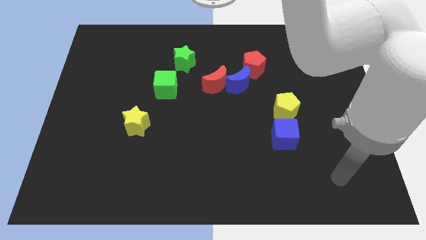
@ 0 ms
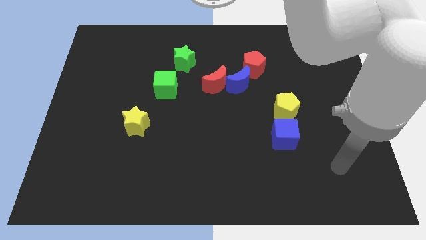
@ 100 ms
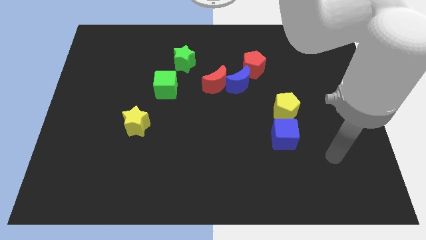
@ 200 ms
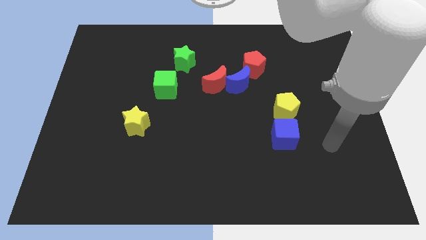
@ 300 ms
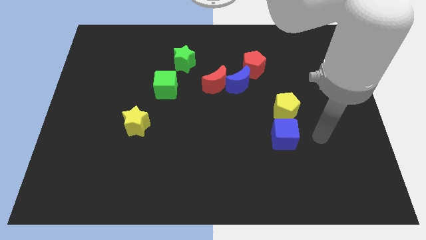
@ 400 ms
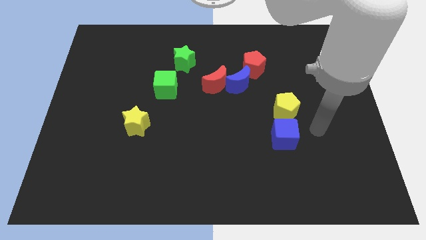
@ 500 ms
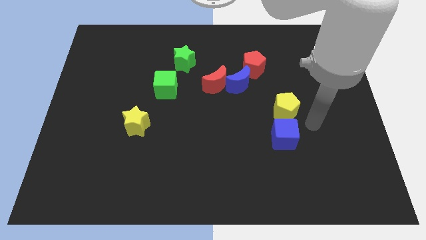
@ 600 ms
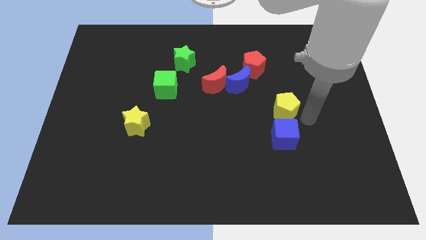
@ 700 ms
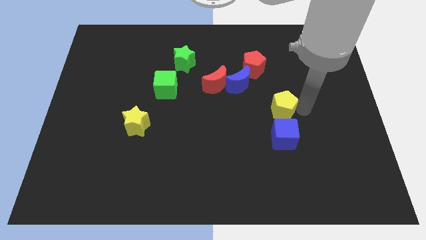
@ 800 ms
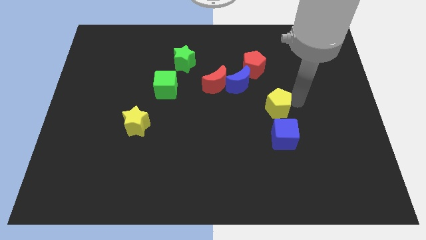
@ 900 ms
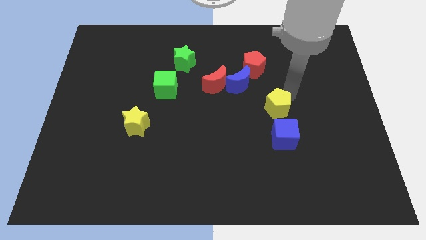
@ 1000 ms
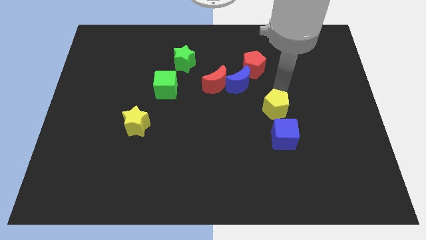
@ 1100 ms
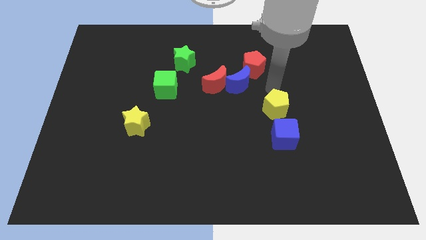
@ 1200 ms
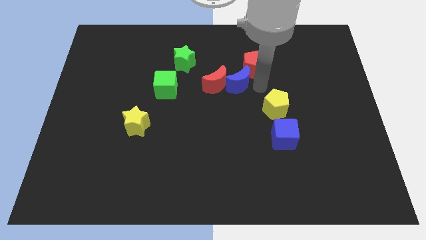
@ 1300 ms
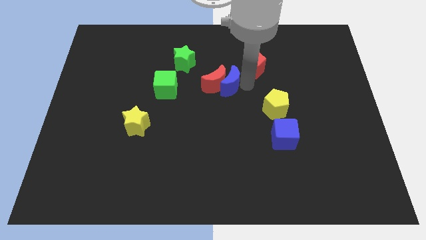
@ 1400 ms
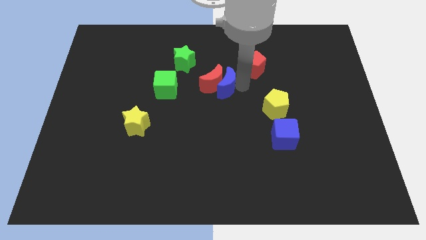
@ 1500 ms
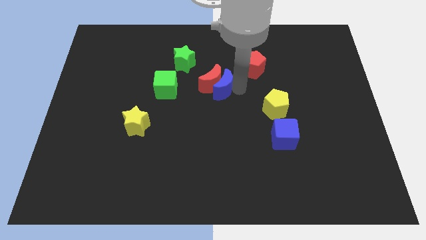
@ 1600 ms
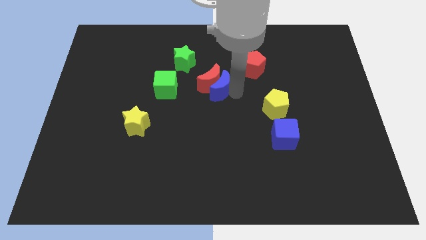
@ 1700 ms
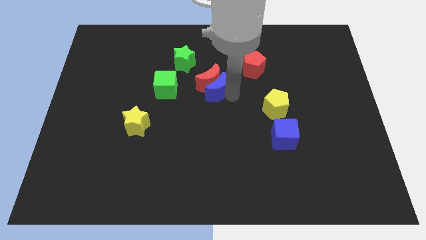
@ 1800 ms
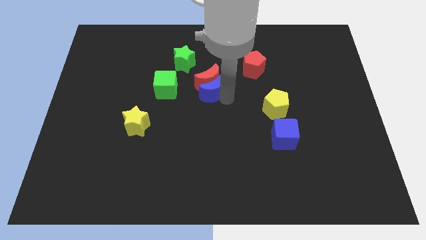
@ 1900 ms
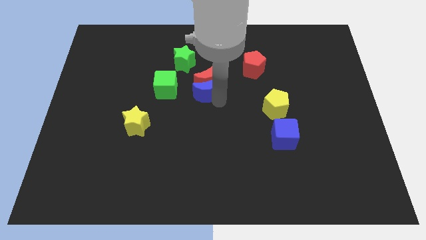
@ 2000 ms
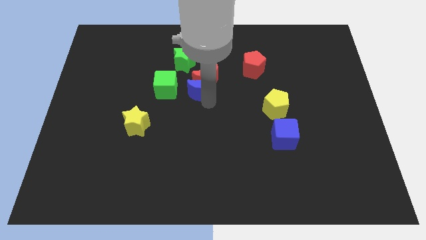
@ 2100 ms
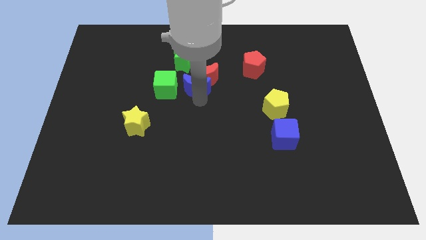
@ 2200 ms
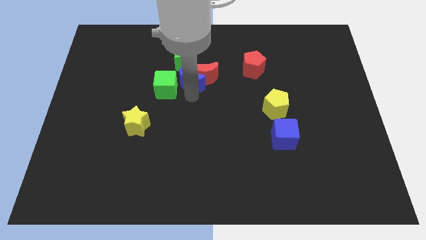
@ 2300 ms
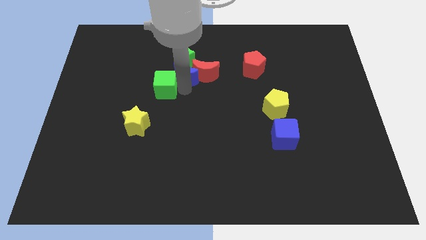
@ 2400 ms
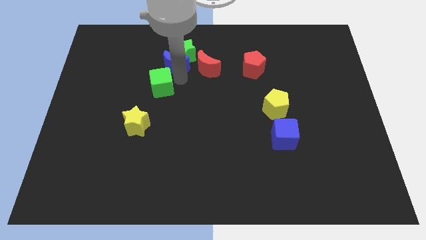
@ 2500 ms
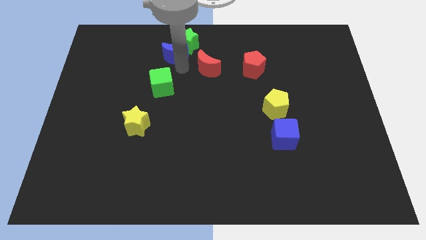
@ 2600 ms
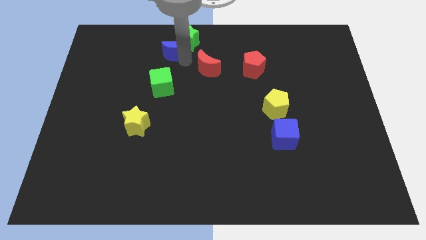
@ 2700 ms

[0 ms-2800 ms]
pull the red moon apart from the blue moon

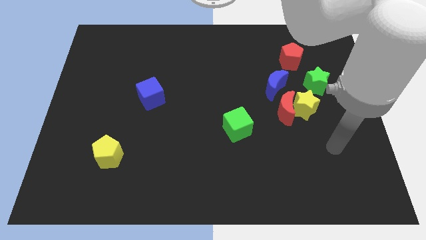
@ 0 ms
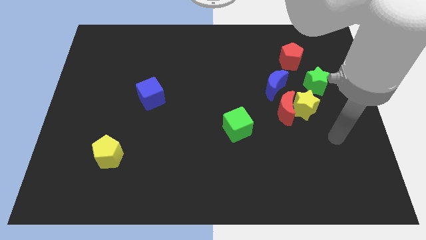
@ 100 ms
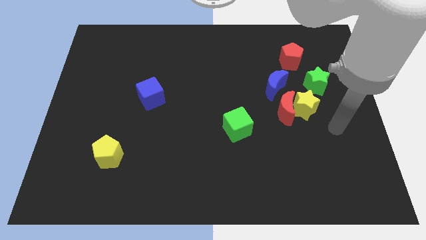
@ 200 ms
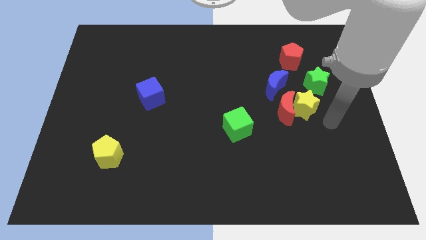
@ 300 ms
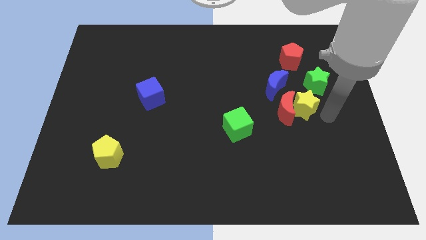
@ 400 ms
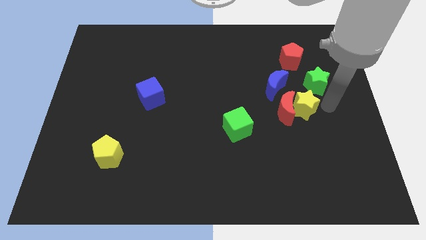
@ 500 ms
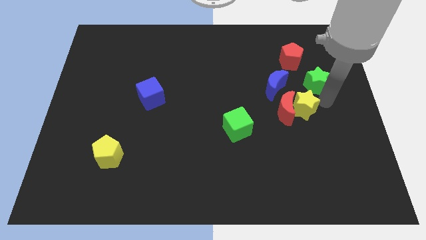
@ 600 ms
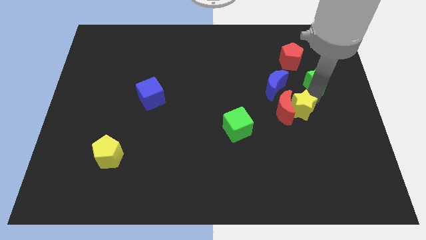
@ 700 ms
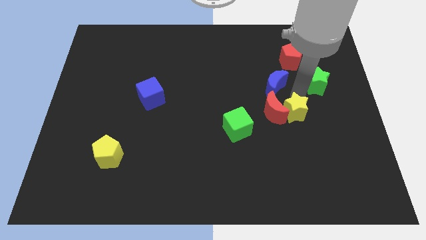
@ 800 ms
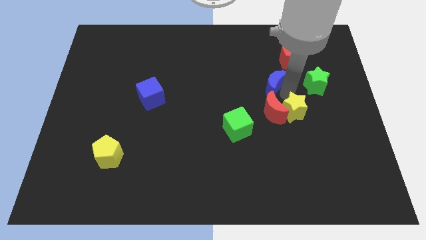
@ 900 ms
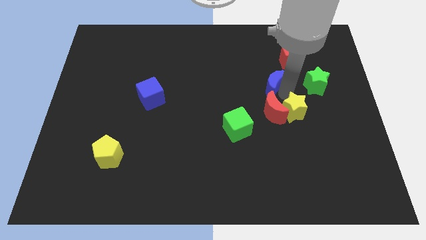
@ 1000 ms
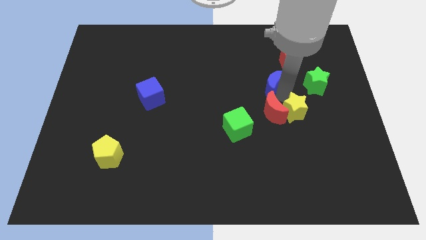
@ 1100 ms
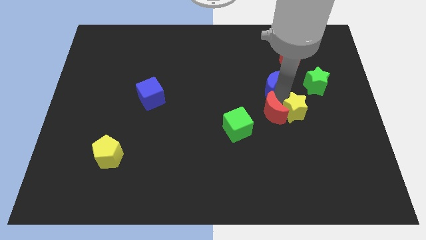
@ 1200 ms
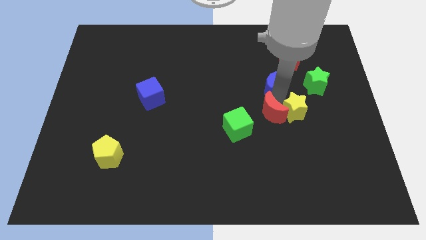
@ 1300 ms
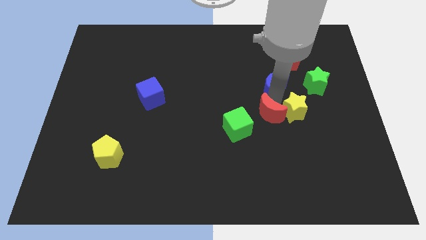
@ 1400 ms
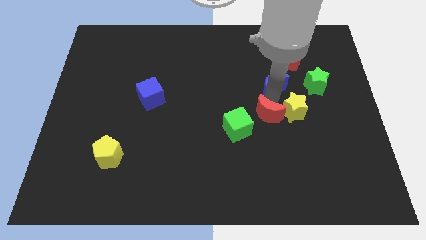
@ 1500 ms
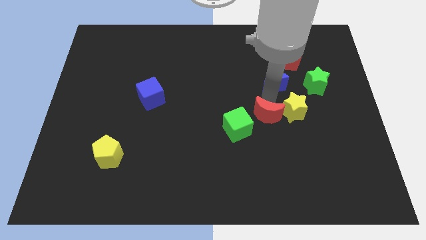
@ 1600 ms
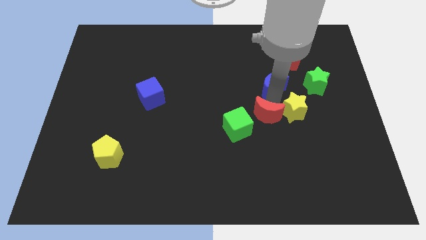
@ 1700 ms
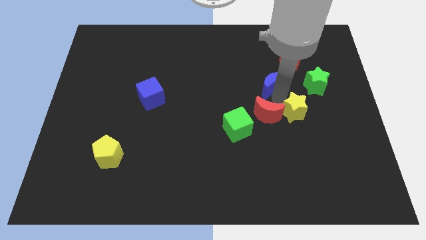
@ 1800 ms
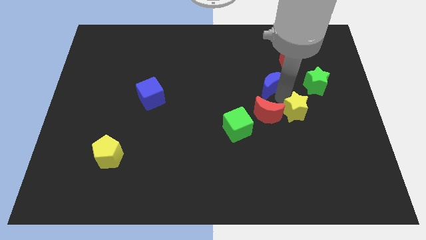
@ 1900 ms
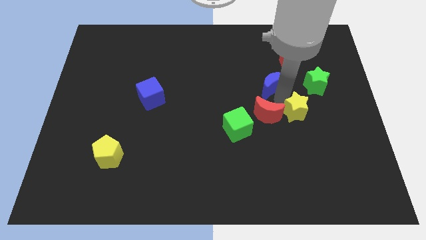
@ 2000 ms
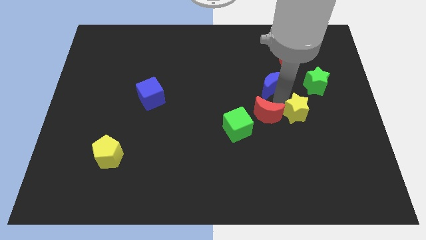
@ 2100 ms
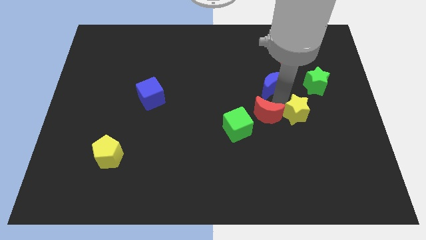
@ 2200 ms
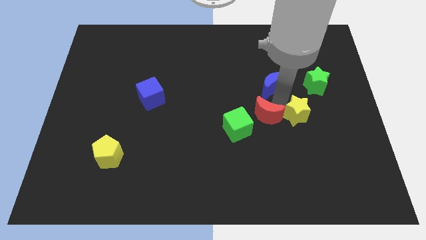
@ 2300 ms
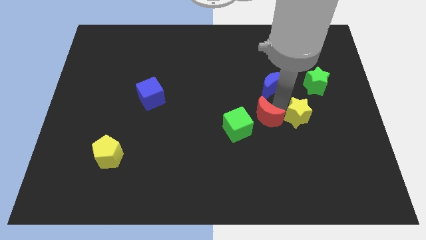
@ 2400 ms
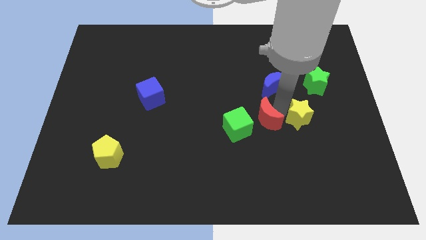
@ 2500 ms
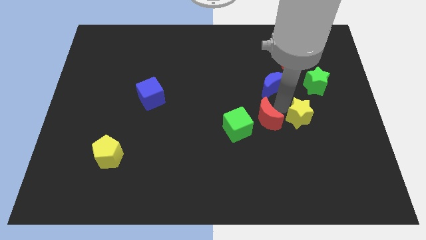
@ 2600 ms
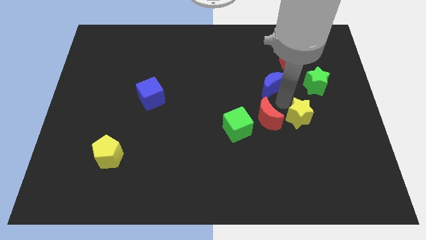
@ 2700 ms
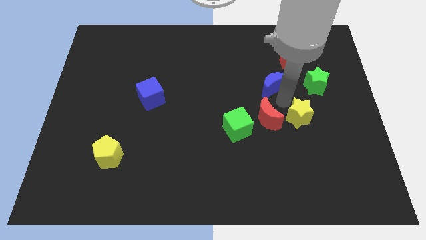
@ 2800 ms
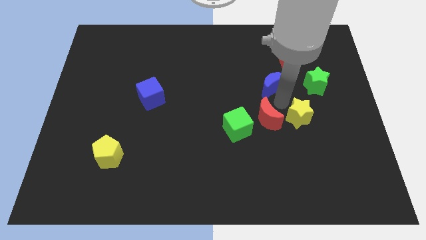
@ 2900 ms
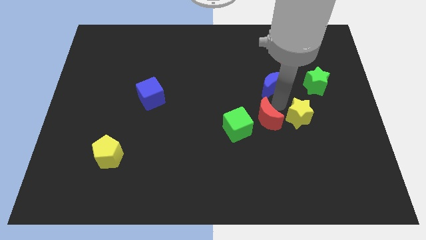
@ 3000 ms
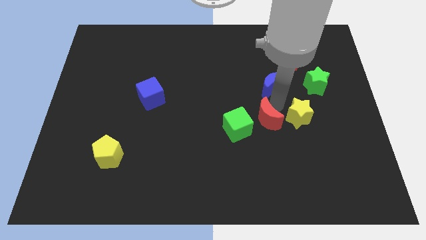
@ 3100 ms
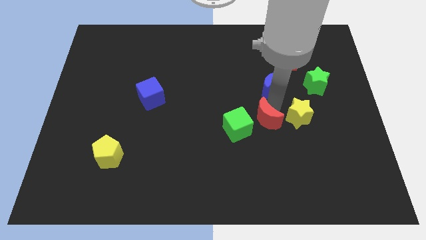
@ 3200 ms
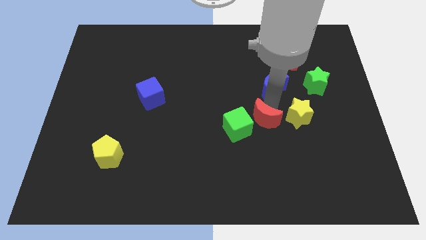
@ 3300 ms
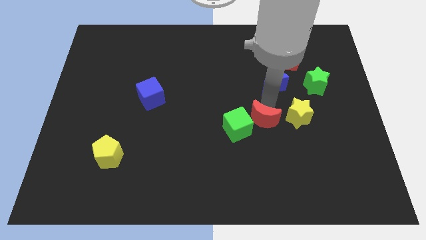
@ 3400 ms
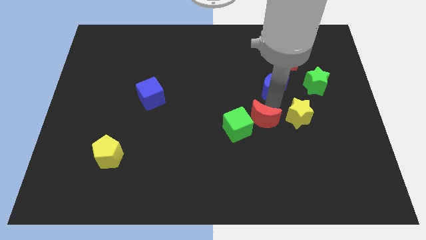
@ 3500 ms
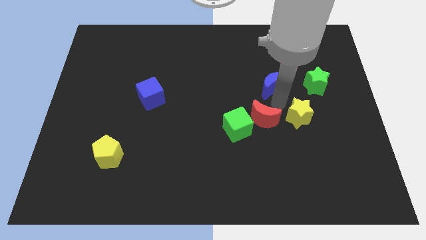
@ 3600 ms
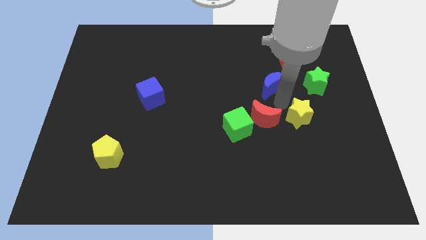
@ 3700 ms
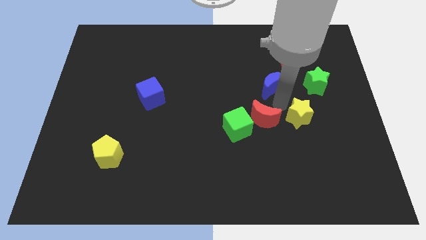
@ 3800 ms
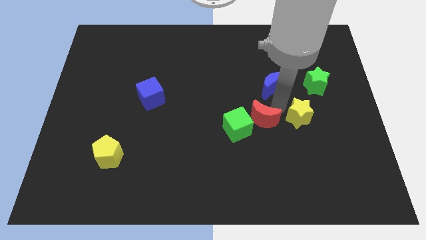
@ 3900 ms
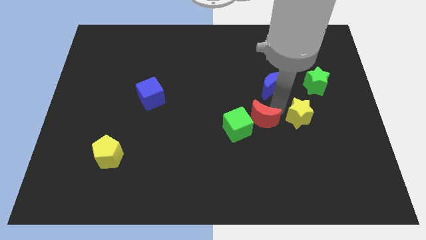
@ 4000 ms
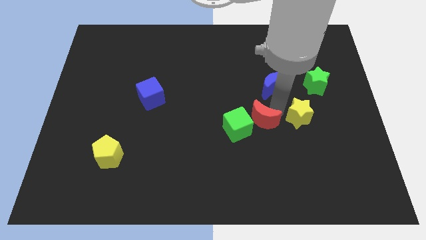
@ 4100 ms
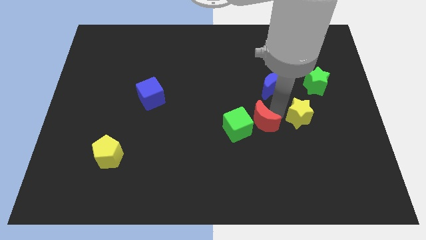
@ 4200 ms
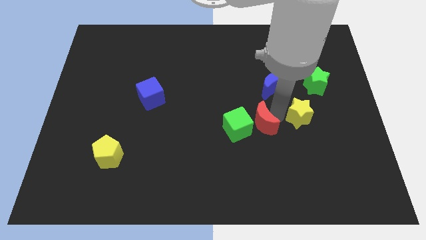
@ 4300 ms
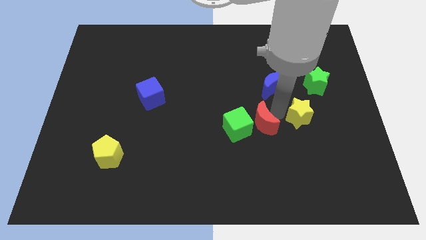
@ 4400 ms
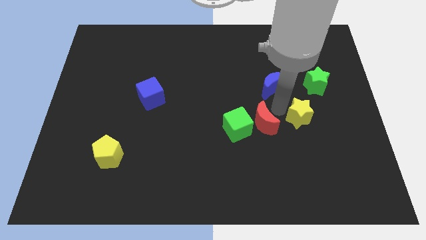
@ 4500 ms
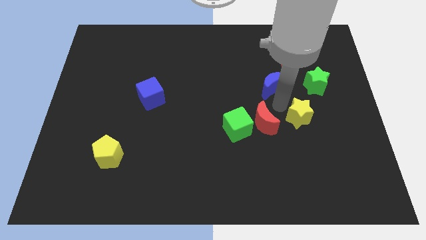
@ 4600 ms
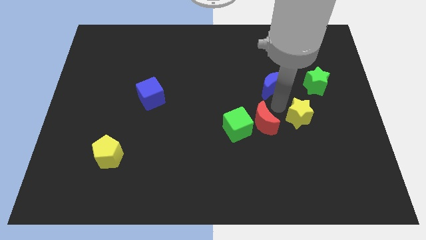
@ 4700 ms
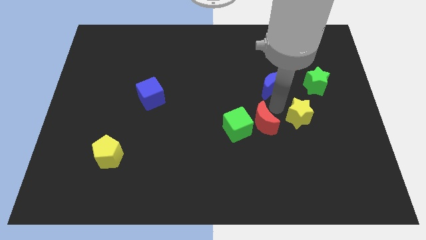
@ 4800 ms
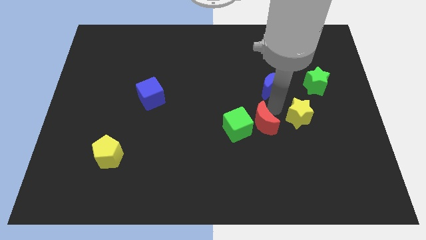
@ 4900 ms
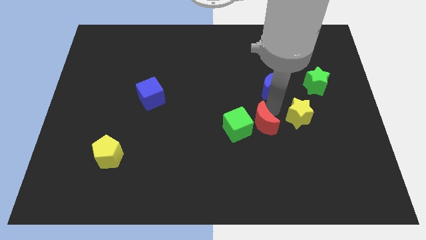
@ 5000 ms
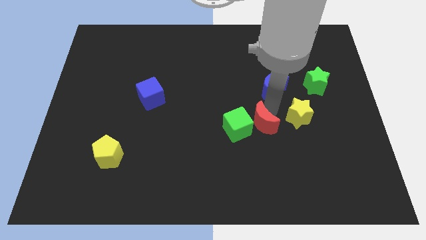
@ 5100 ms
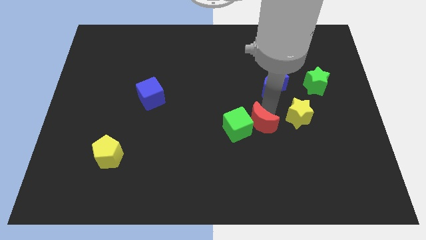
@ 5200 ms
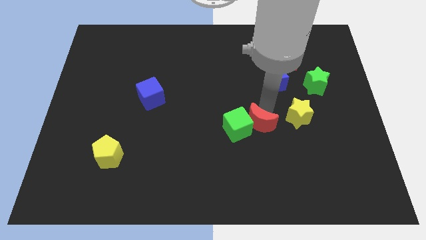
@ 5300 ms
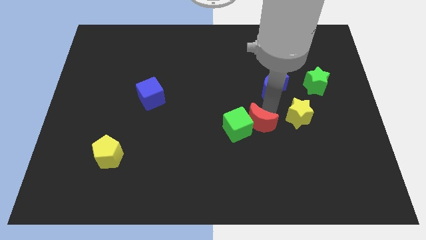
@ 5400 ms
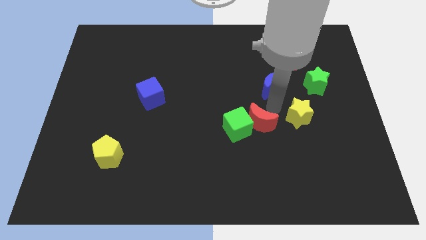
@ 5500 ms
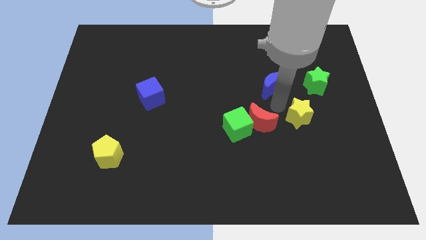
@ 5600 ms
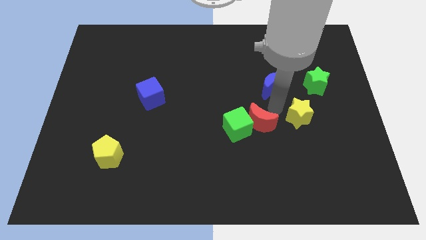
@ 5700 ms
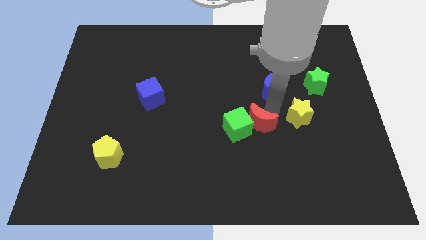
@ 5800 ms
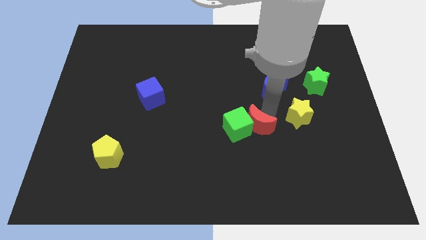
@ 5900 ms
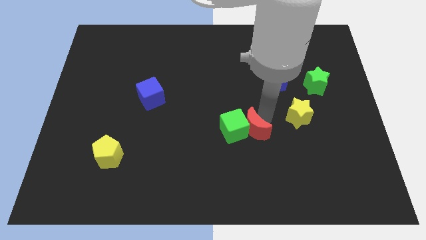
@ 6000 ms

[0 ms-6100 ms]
pull the red moon apart from the yellow star and blue moon

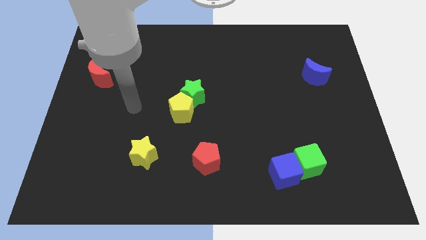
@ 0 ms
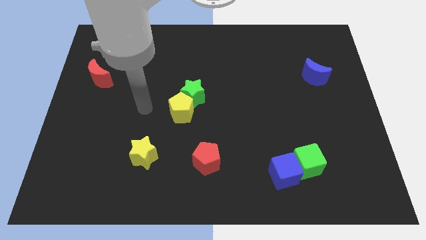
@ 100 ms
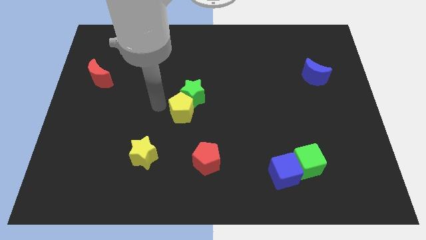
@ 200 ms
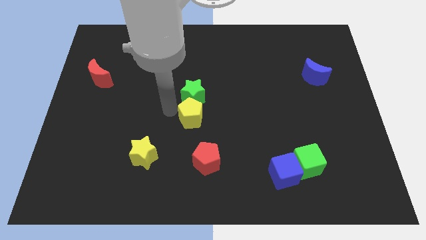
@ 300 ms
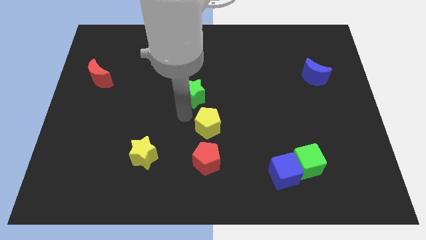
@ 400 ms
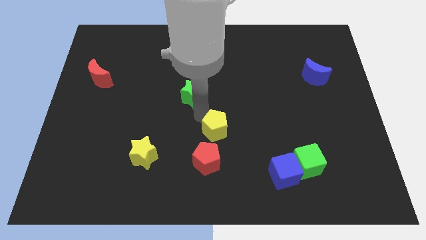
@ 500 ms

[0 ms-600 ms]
move the green star away from the yellow pentagon

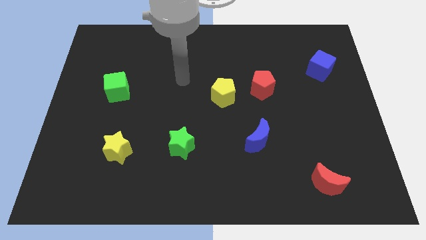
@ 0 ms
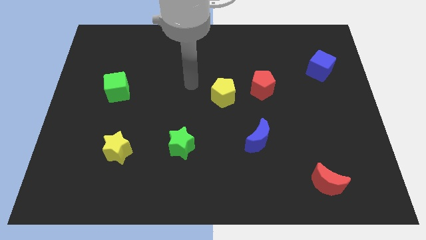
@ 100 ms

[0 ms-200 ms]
pull the red pentagon apart from the yellow pentagon
